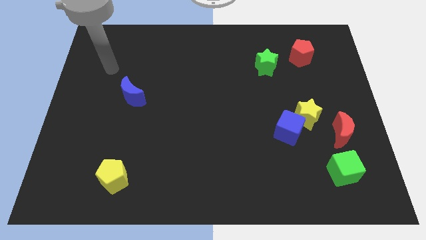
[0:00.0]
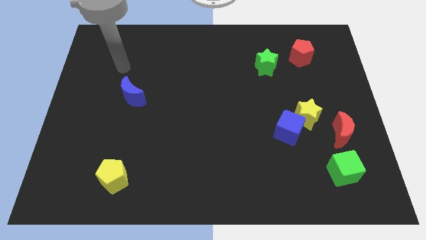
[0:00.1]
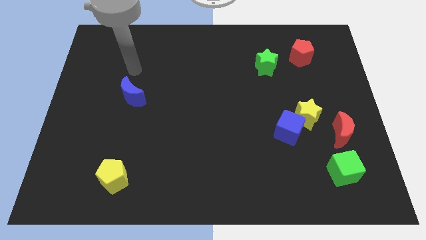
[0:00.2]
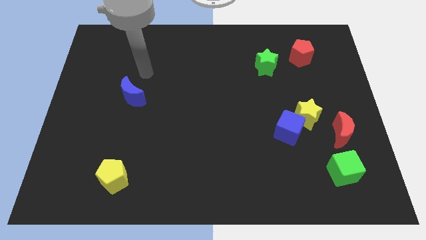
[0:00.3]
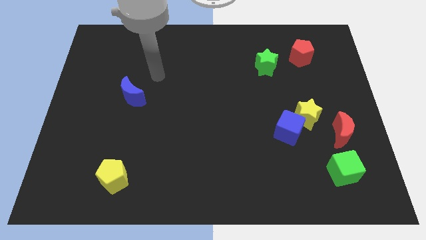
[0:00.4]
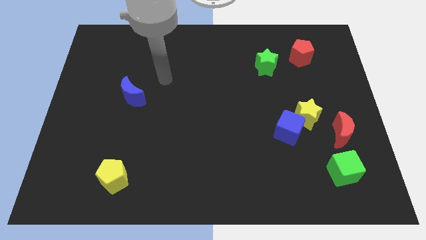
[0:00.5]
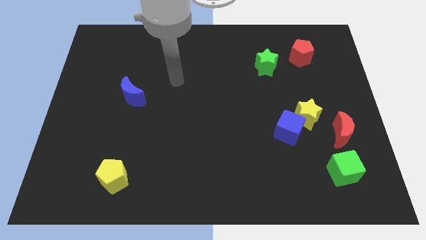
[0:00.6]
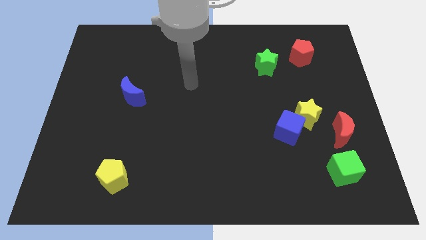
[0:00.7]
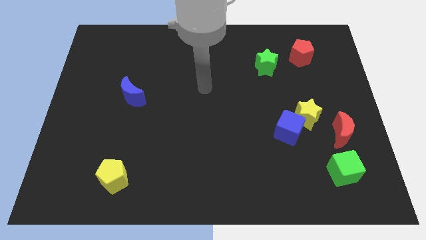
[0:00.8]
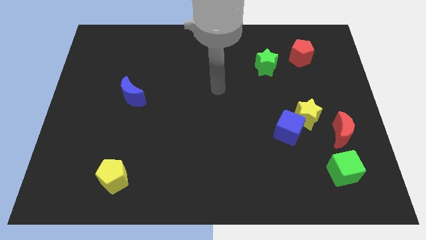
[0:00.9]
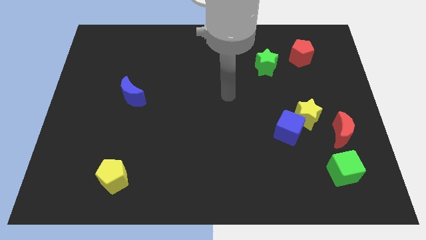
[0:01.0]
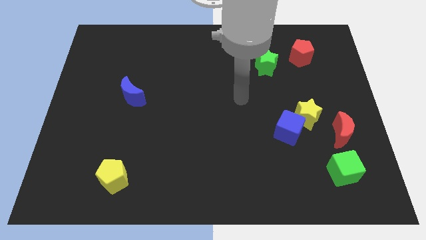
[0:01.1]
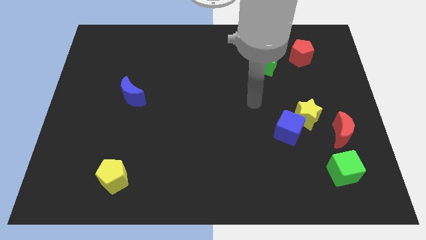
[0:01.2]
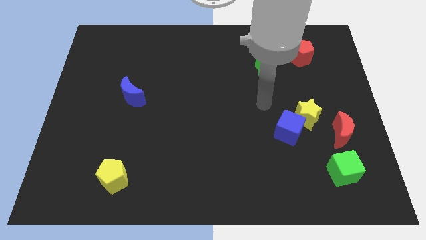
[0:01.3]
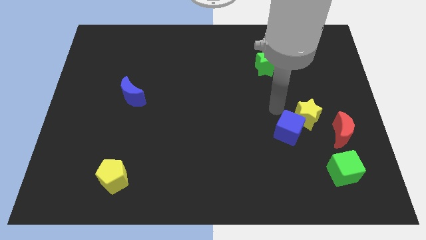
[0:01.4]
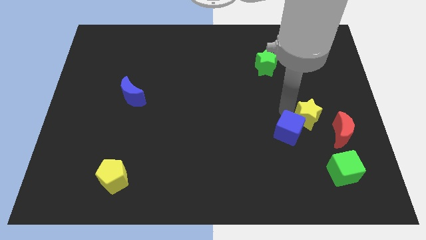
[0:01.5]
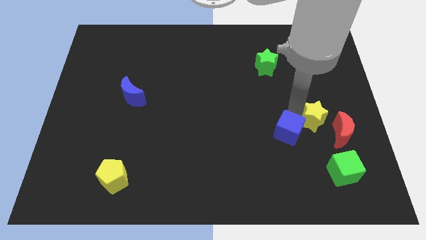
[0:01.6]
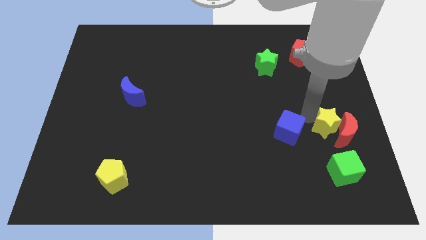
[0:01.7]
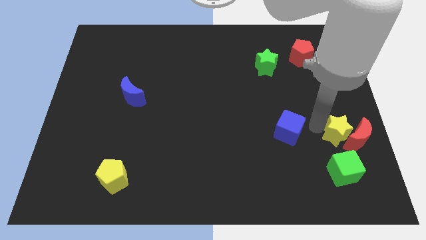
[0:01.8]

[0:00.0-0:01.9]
move the blue cube away from the yellow star

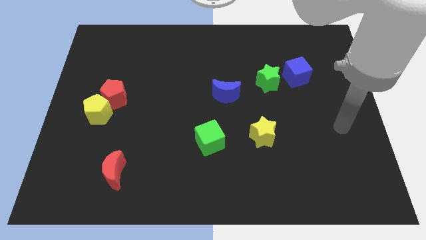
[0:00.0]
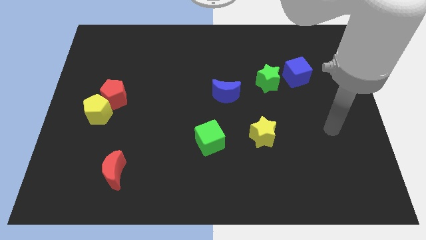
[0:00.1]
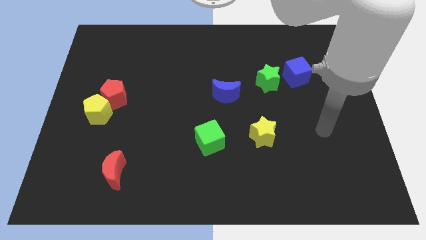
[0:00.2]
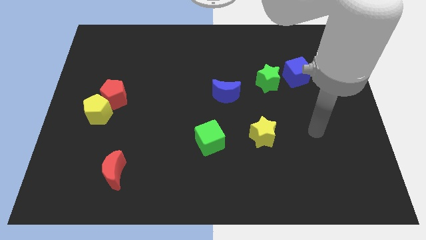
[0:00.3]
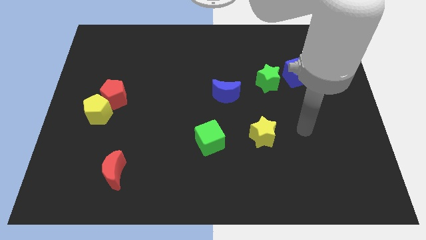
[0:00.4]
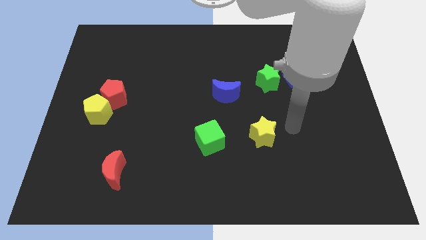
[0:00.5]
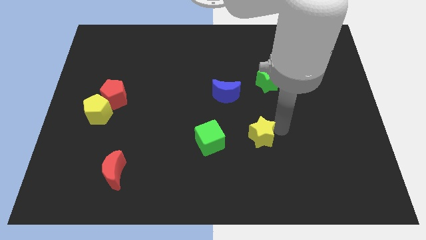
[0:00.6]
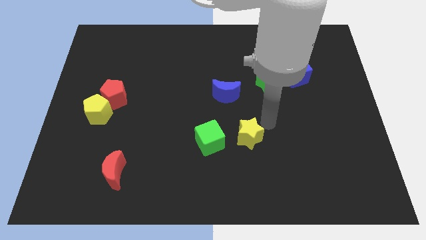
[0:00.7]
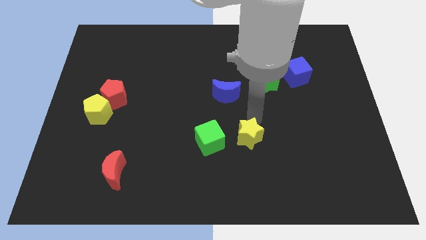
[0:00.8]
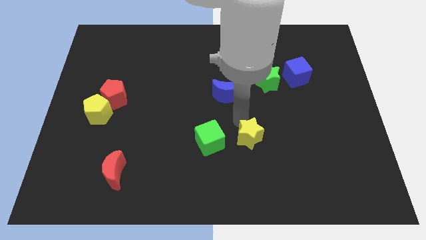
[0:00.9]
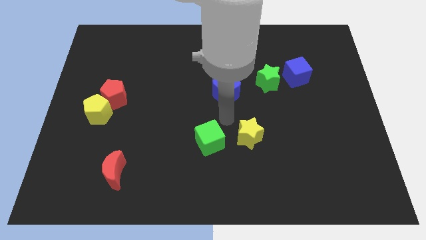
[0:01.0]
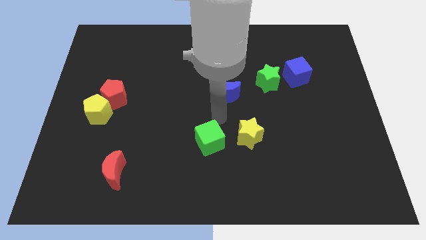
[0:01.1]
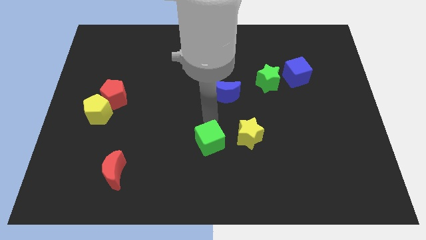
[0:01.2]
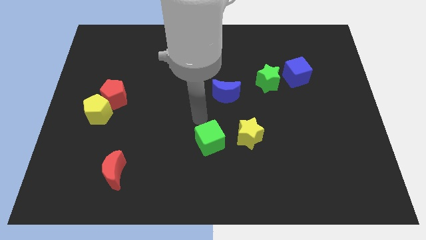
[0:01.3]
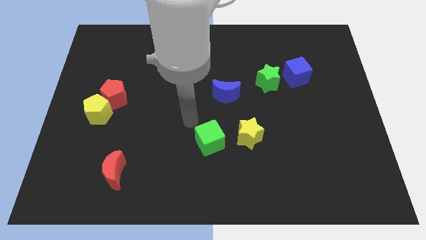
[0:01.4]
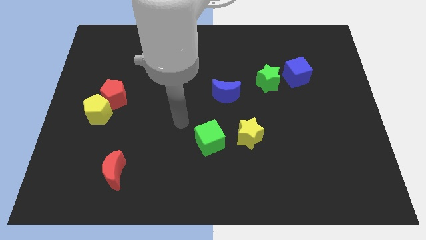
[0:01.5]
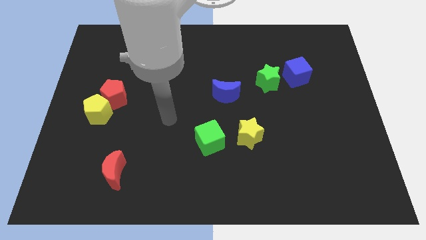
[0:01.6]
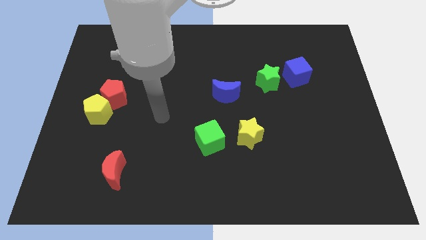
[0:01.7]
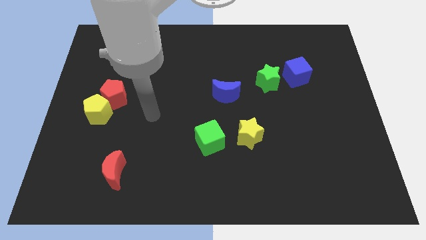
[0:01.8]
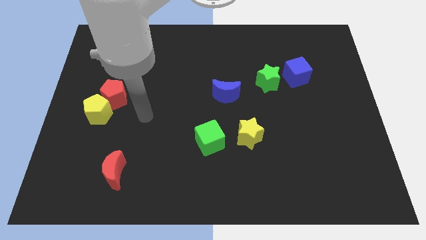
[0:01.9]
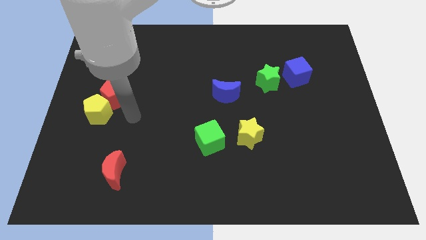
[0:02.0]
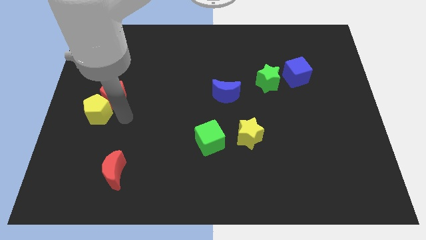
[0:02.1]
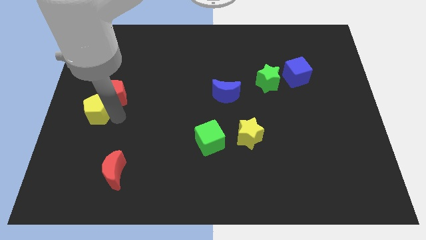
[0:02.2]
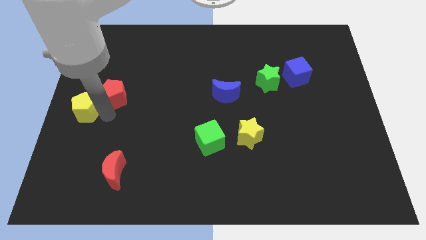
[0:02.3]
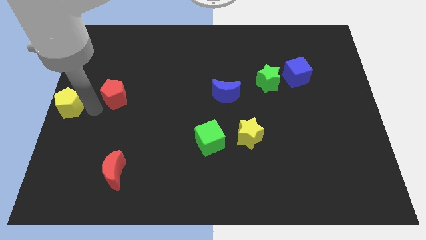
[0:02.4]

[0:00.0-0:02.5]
separate the red pentagon from the yellow pentagon

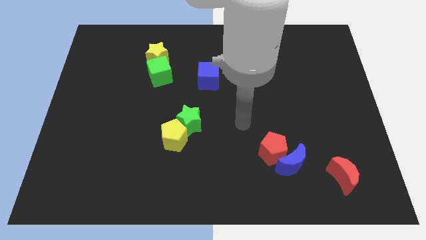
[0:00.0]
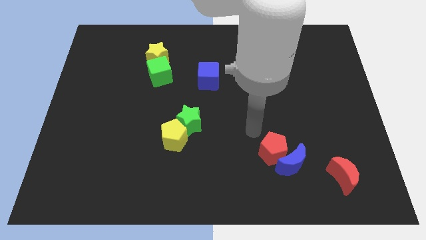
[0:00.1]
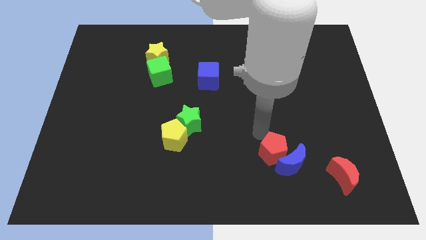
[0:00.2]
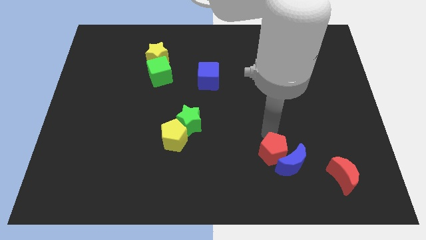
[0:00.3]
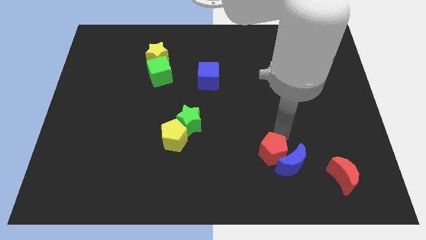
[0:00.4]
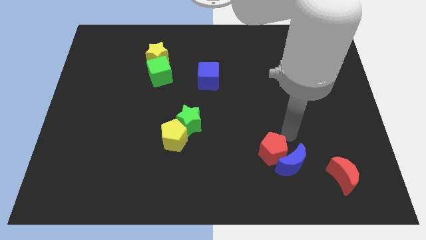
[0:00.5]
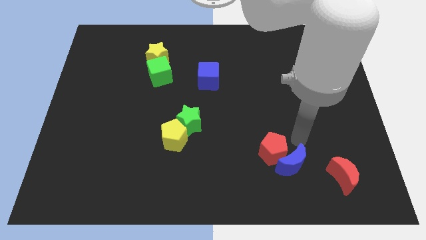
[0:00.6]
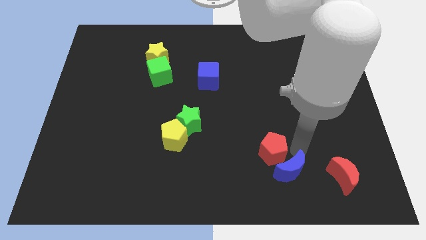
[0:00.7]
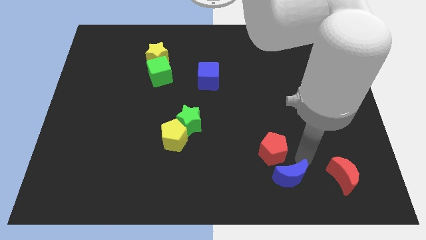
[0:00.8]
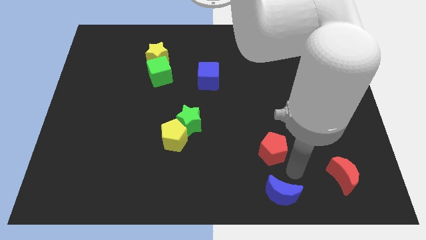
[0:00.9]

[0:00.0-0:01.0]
separate the red pentagon from the blue moon

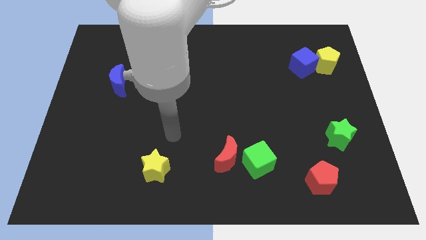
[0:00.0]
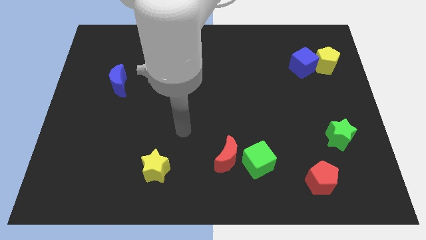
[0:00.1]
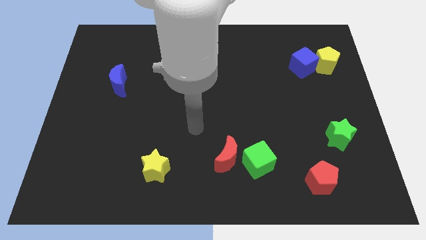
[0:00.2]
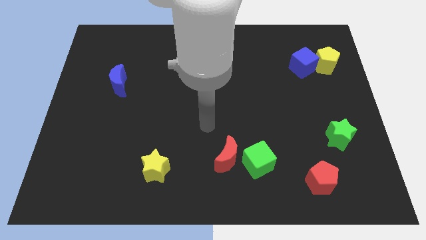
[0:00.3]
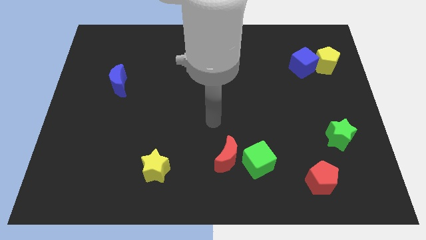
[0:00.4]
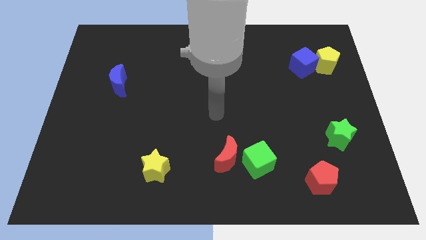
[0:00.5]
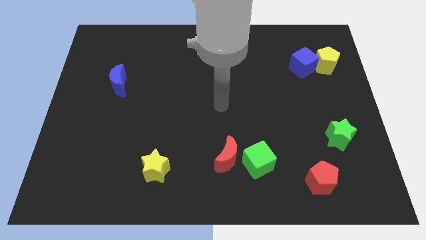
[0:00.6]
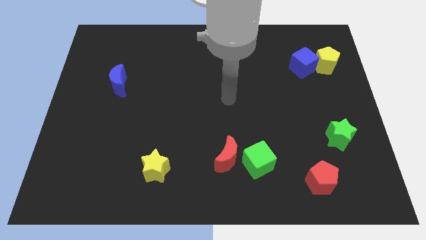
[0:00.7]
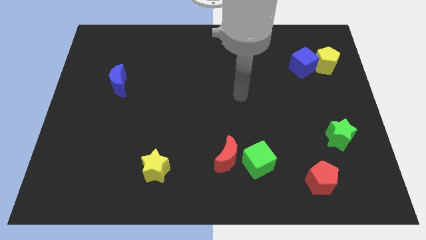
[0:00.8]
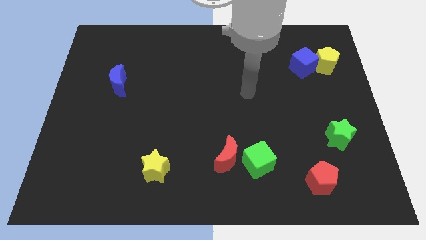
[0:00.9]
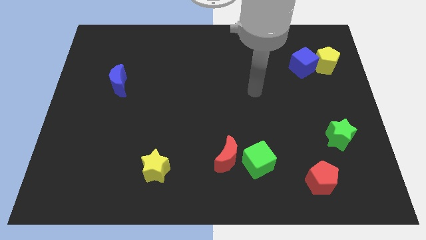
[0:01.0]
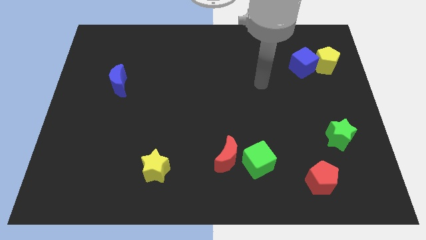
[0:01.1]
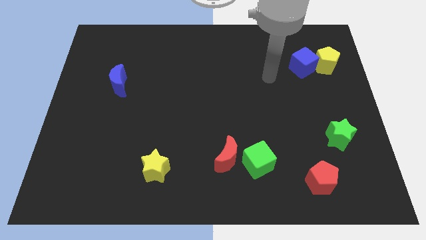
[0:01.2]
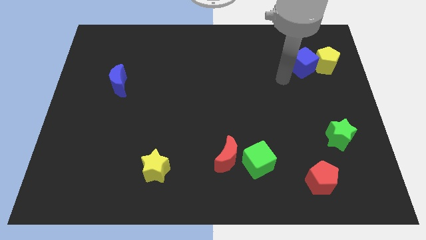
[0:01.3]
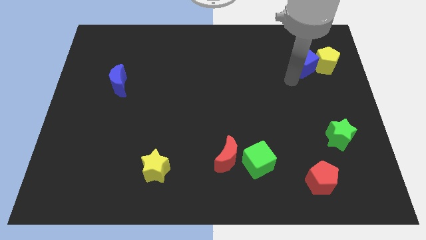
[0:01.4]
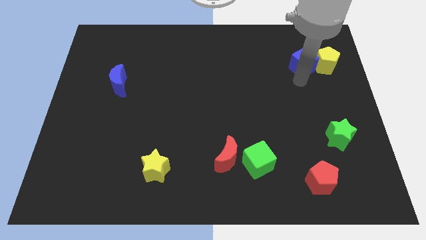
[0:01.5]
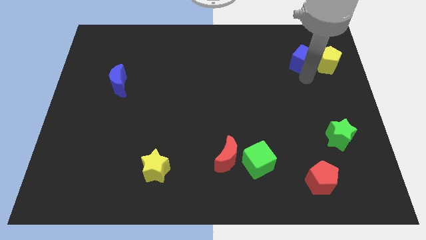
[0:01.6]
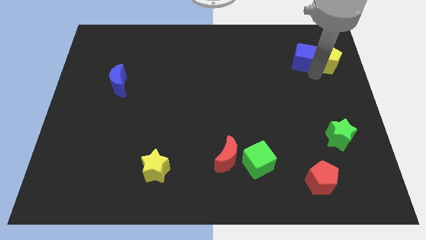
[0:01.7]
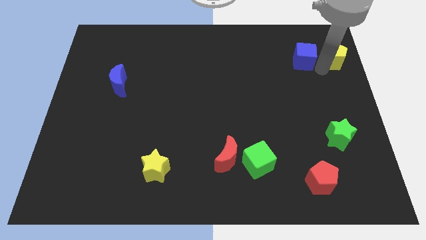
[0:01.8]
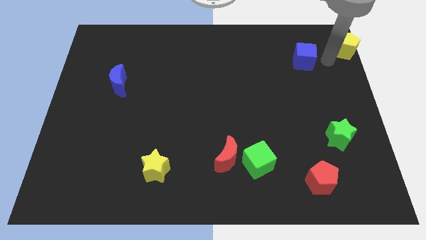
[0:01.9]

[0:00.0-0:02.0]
move the blue cube away from the yellow pentagon

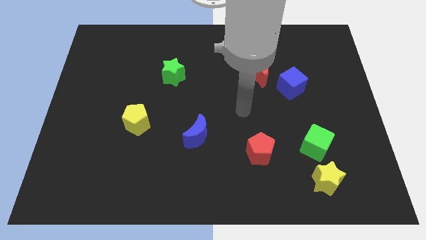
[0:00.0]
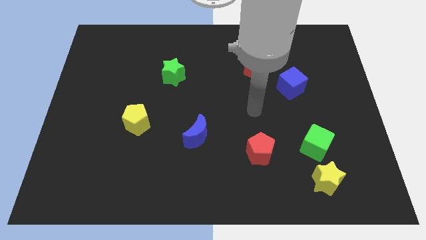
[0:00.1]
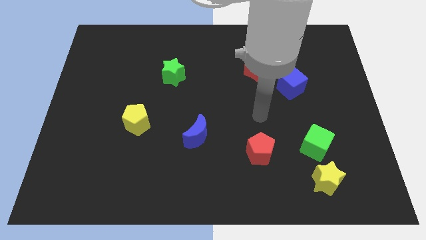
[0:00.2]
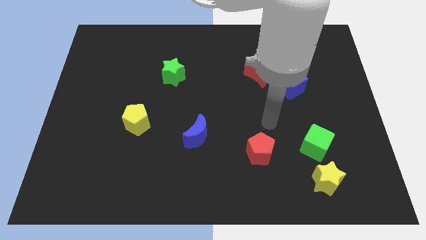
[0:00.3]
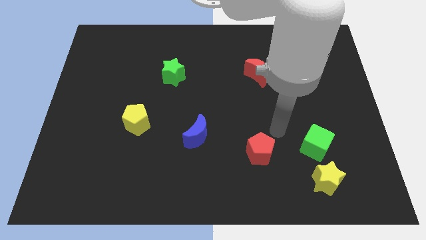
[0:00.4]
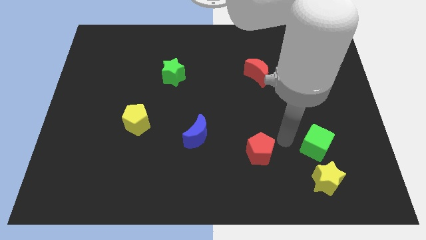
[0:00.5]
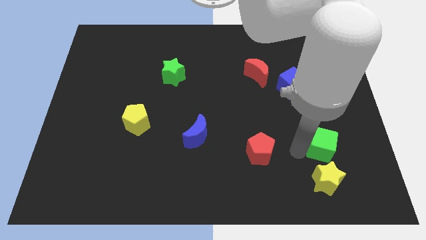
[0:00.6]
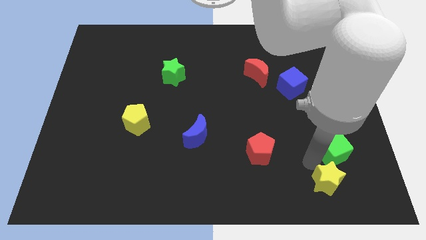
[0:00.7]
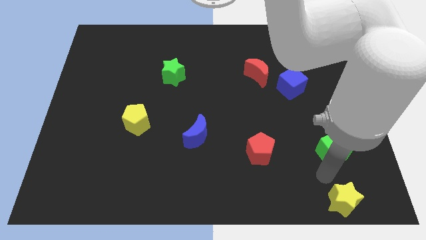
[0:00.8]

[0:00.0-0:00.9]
pull the green cube apart from the yellow star

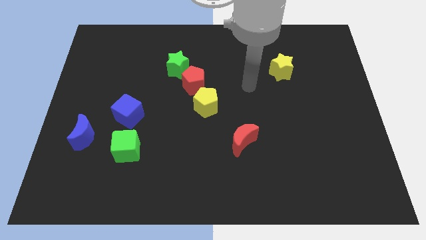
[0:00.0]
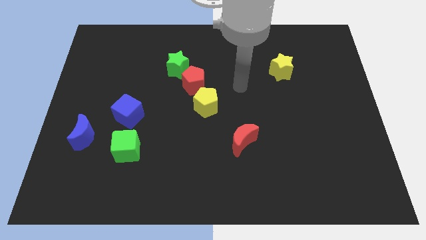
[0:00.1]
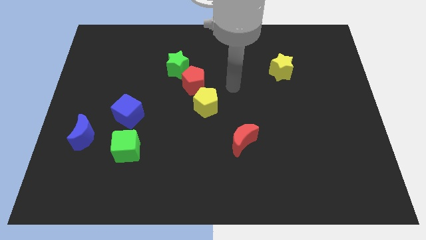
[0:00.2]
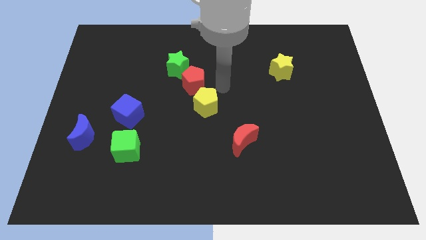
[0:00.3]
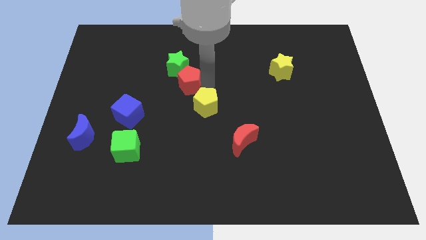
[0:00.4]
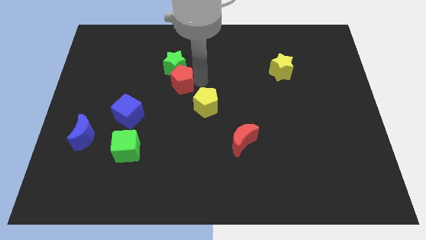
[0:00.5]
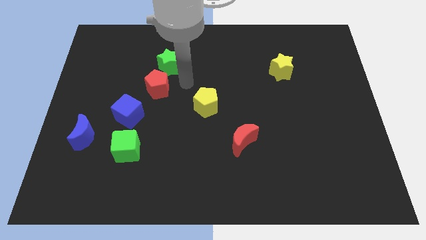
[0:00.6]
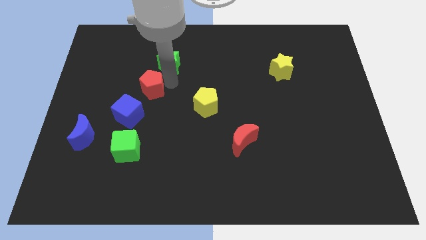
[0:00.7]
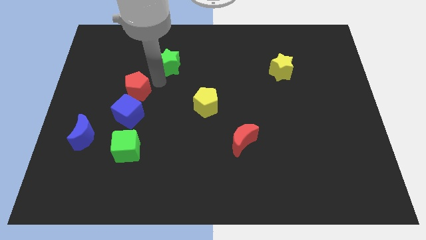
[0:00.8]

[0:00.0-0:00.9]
pull the green star apart from the red pentagon

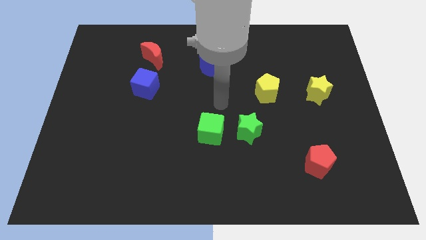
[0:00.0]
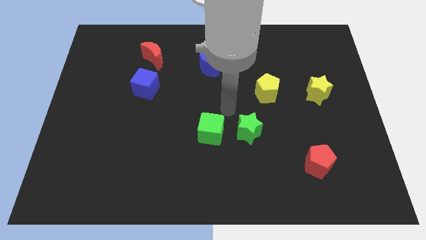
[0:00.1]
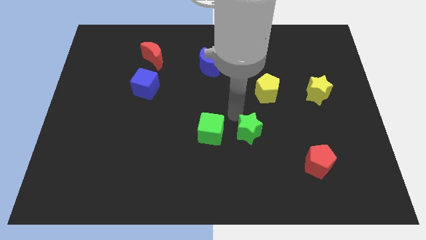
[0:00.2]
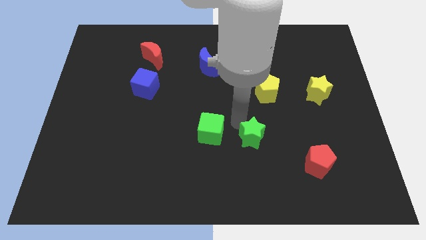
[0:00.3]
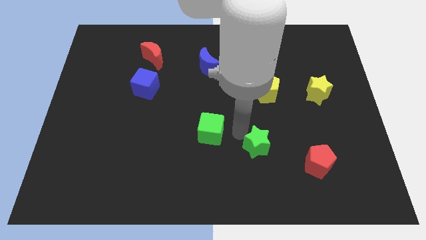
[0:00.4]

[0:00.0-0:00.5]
pull the green cube apart from the green star
